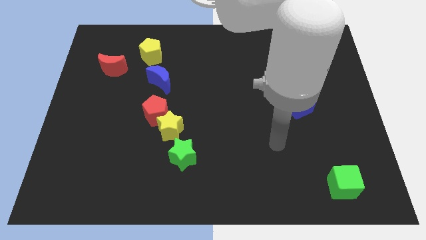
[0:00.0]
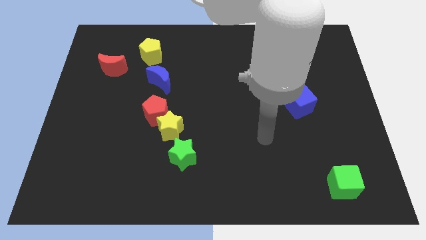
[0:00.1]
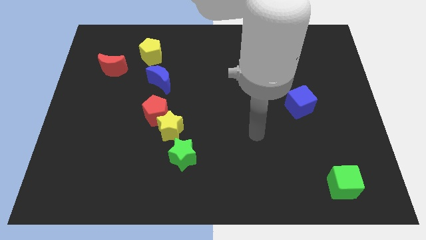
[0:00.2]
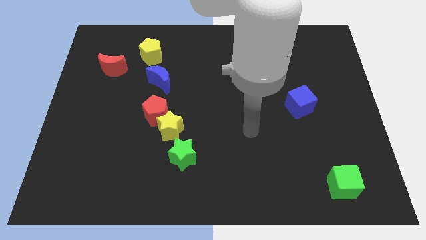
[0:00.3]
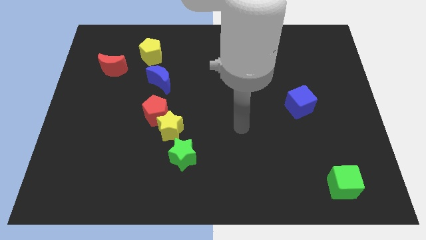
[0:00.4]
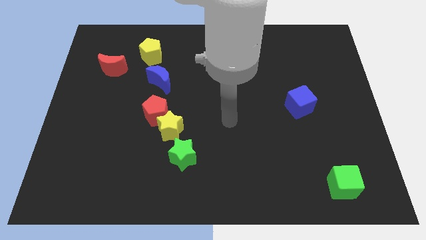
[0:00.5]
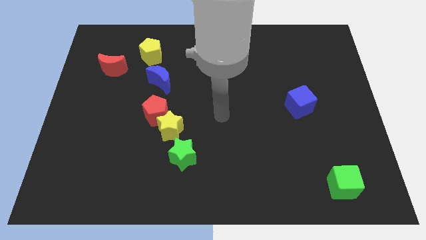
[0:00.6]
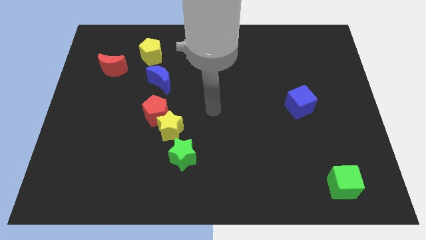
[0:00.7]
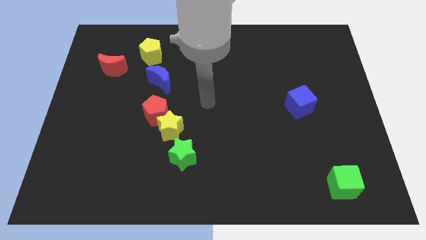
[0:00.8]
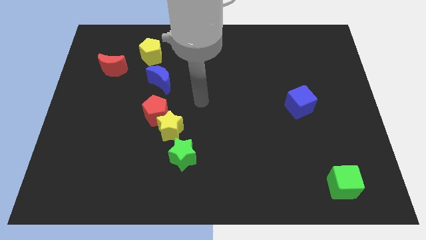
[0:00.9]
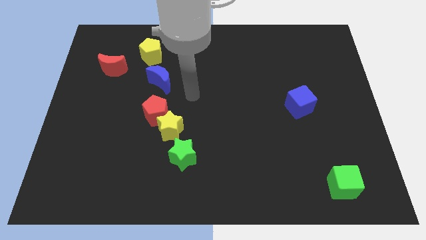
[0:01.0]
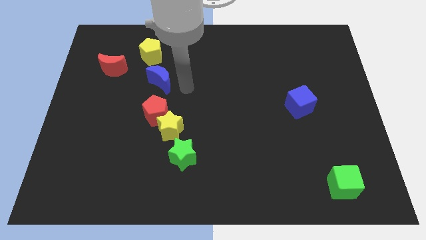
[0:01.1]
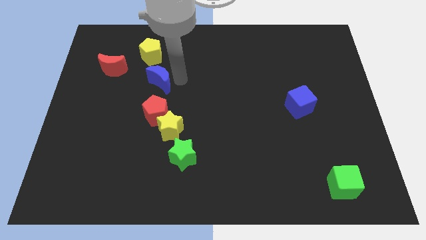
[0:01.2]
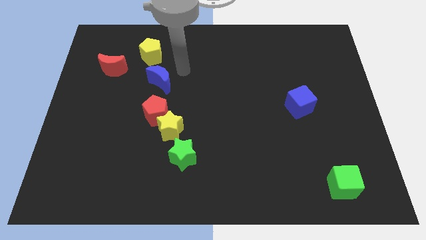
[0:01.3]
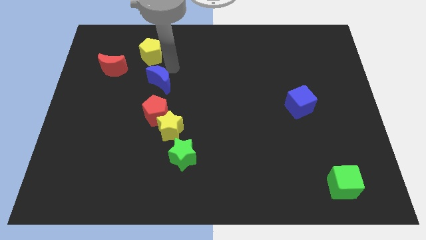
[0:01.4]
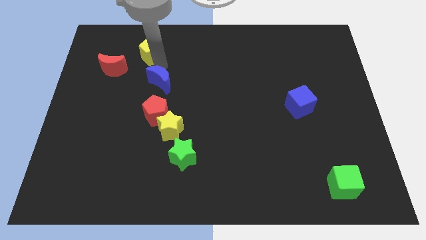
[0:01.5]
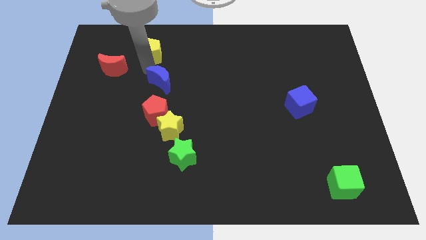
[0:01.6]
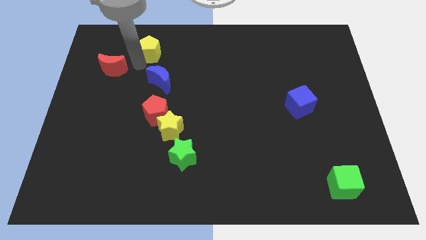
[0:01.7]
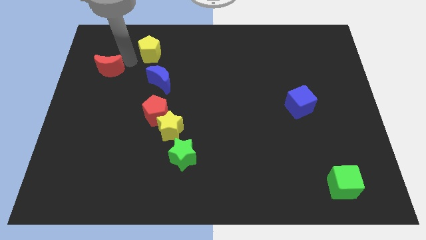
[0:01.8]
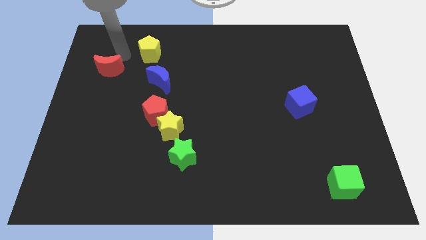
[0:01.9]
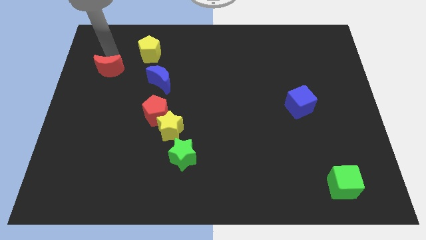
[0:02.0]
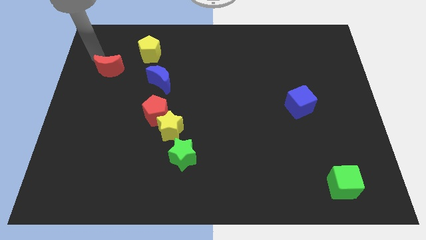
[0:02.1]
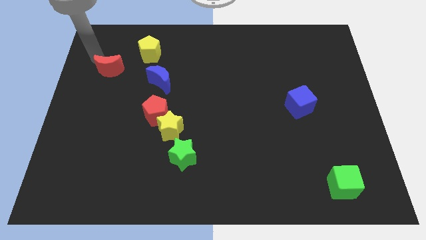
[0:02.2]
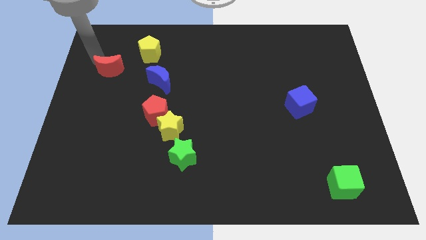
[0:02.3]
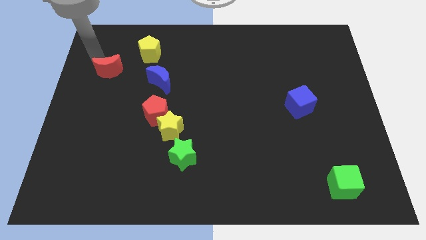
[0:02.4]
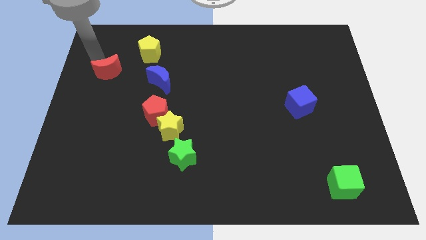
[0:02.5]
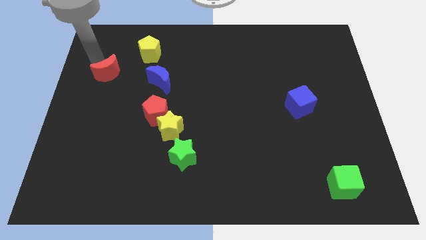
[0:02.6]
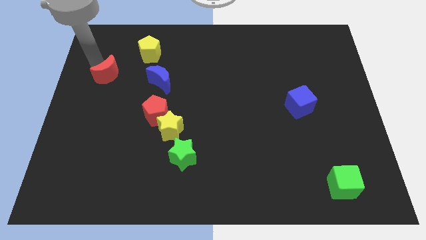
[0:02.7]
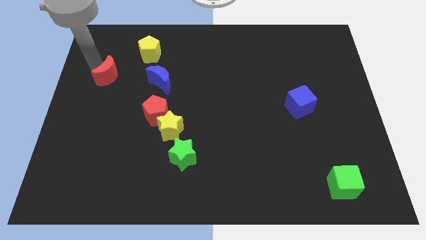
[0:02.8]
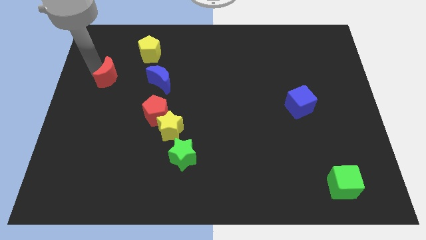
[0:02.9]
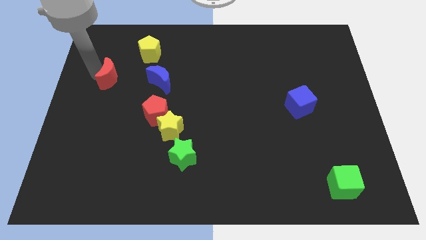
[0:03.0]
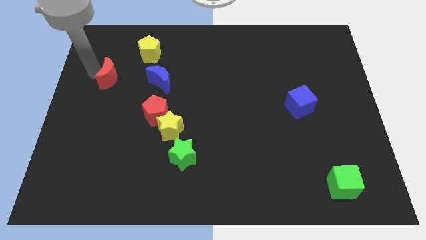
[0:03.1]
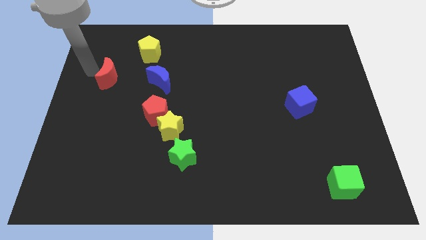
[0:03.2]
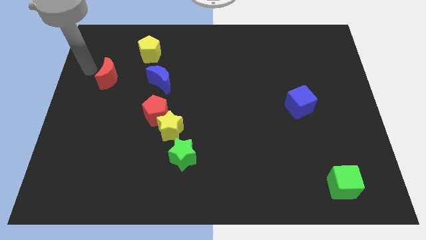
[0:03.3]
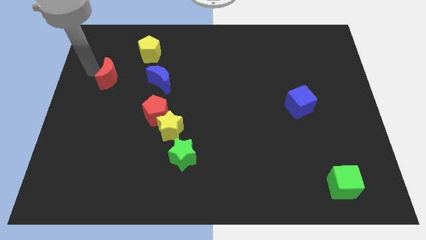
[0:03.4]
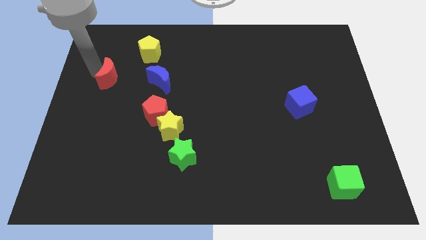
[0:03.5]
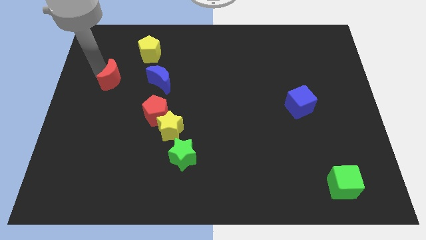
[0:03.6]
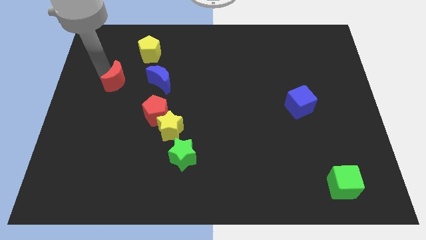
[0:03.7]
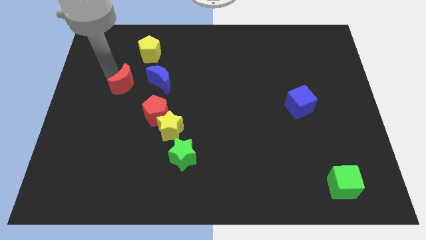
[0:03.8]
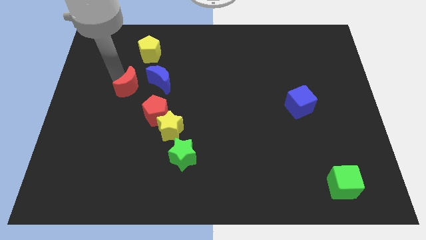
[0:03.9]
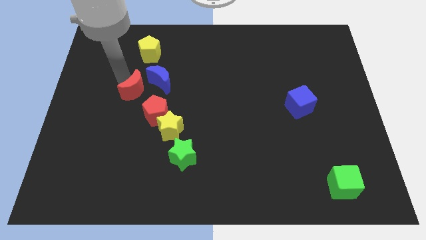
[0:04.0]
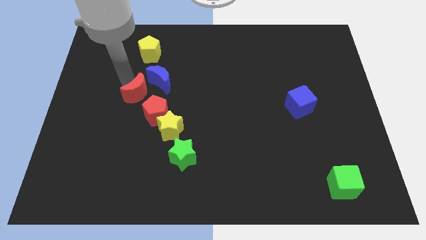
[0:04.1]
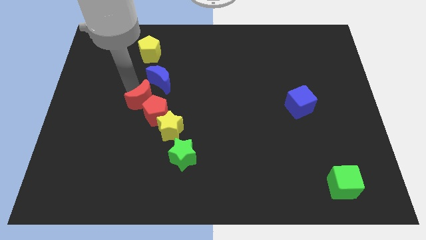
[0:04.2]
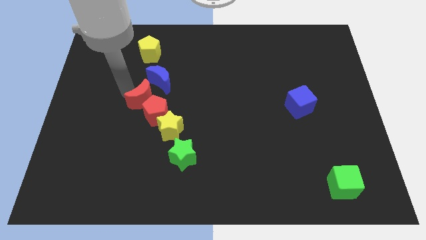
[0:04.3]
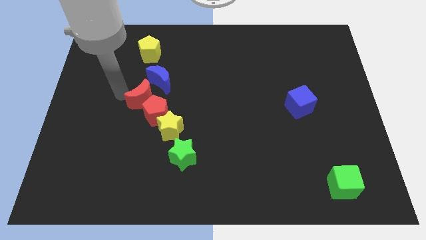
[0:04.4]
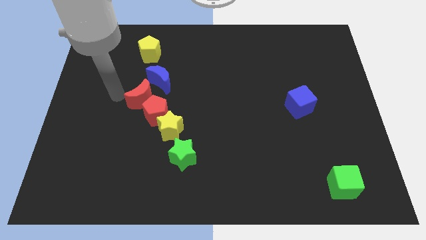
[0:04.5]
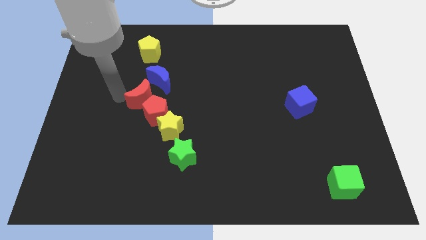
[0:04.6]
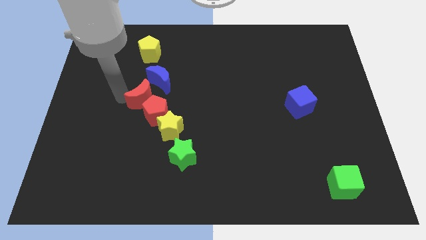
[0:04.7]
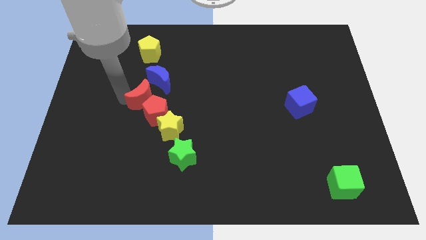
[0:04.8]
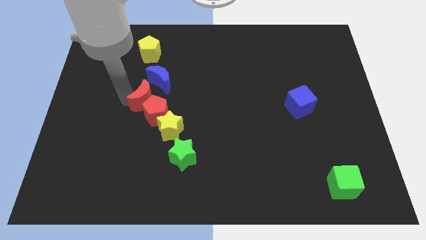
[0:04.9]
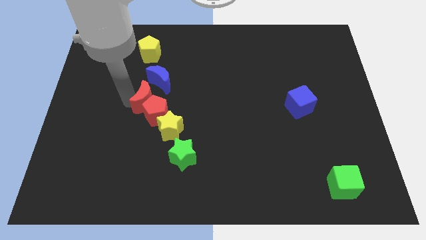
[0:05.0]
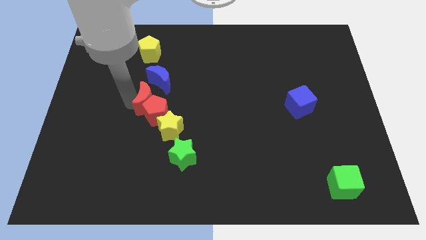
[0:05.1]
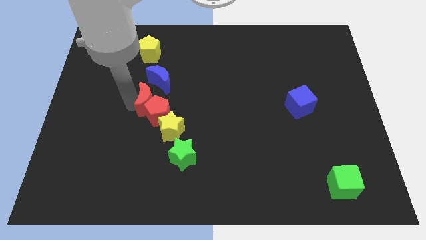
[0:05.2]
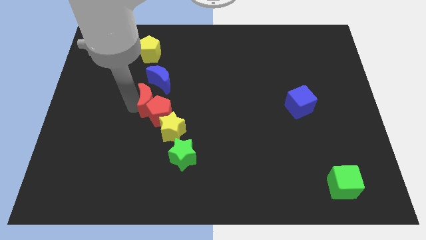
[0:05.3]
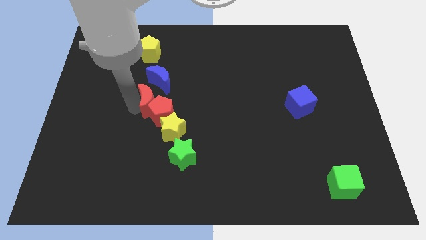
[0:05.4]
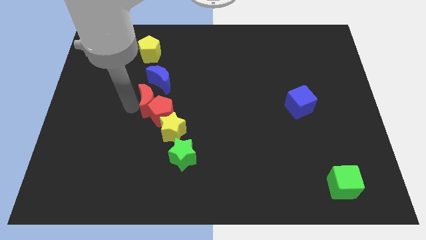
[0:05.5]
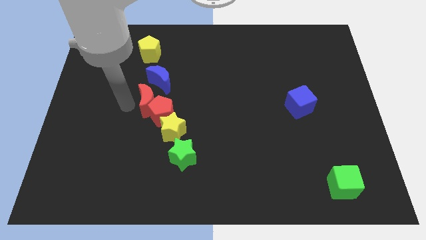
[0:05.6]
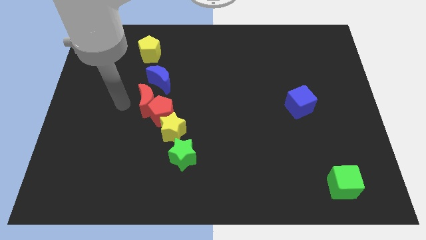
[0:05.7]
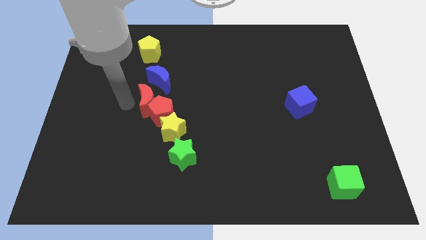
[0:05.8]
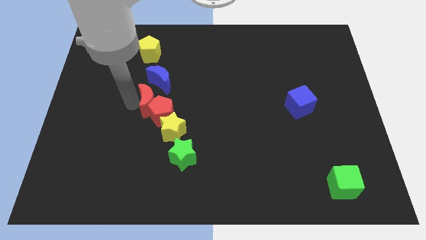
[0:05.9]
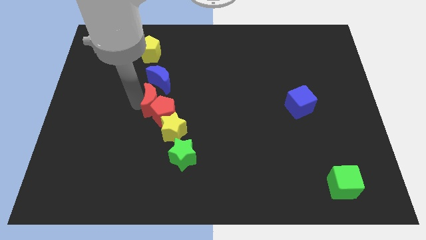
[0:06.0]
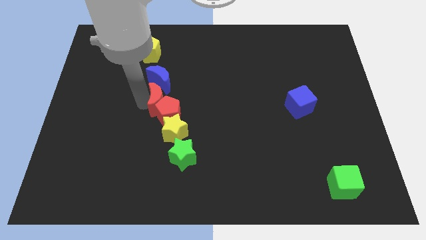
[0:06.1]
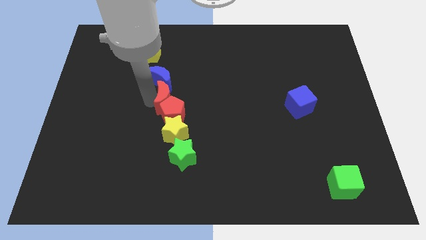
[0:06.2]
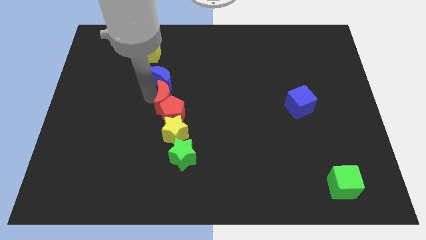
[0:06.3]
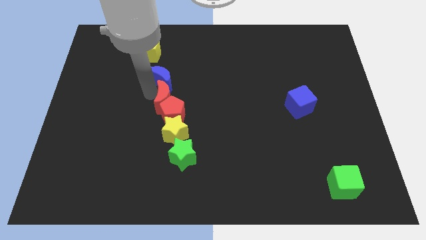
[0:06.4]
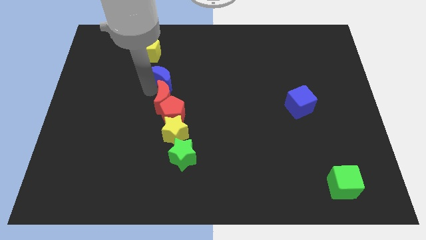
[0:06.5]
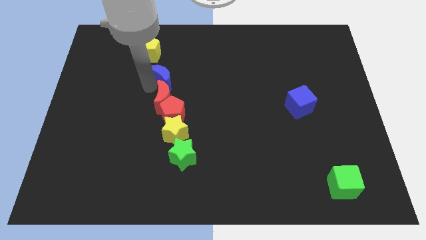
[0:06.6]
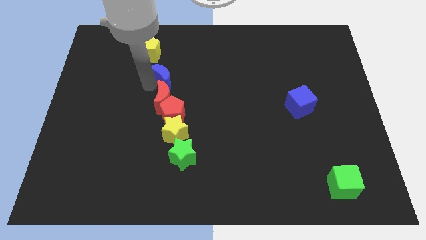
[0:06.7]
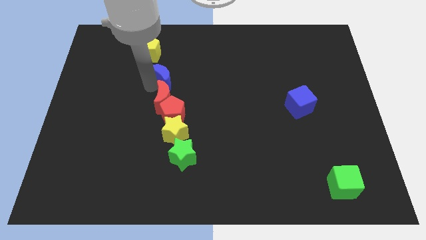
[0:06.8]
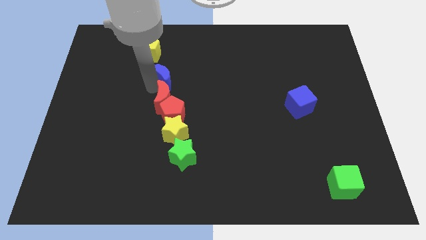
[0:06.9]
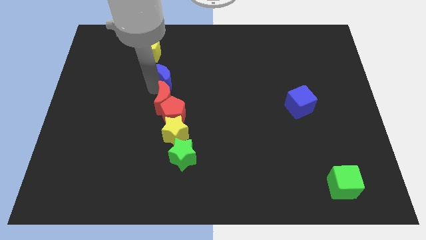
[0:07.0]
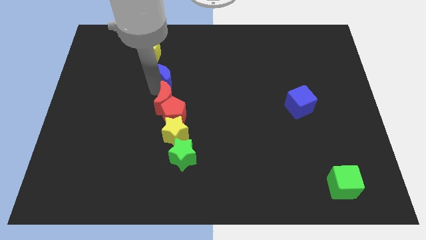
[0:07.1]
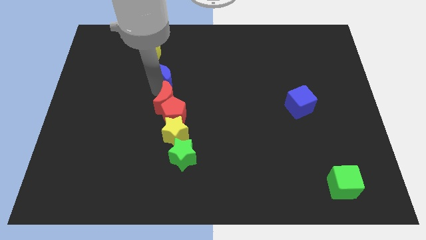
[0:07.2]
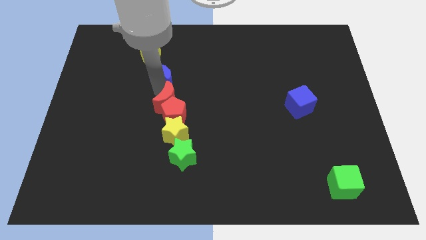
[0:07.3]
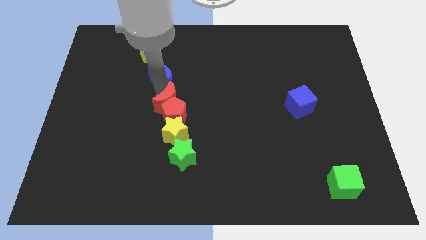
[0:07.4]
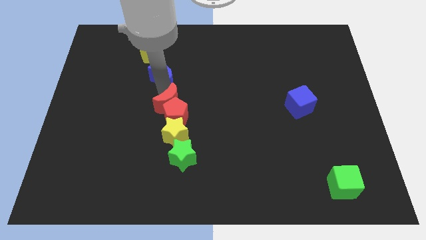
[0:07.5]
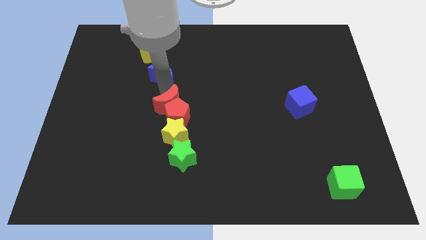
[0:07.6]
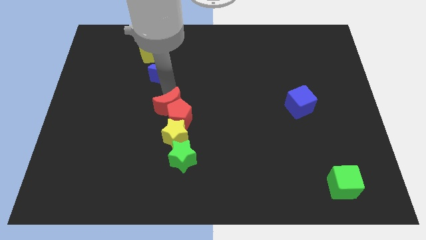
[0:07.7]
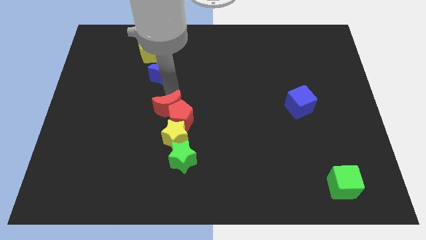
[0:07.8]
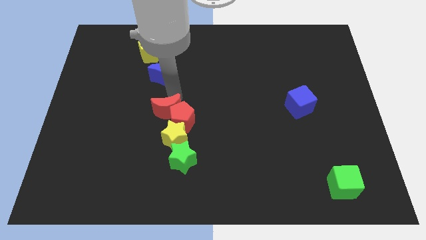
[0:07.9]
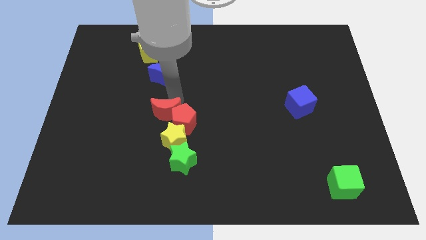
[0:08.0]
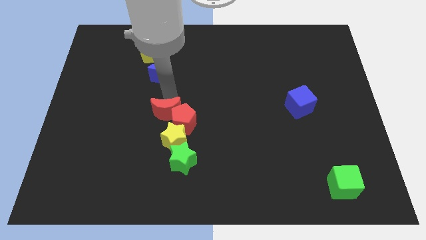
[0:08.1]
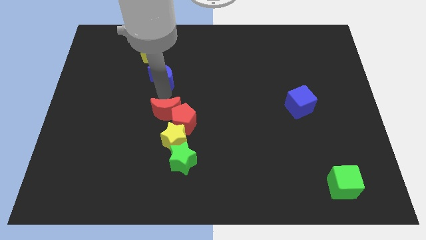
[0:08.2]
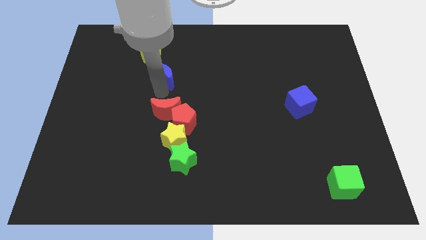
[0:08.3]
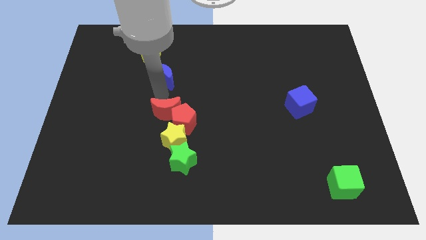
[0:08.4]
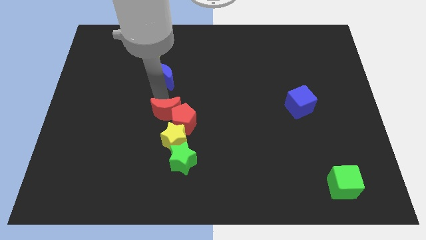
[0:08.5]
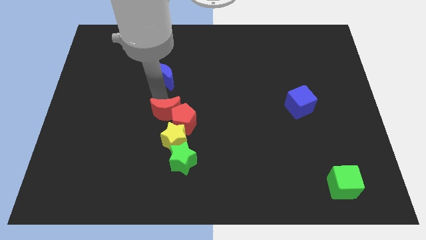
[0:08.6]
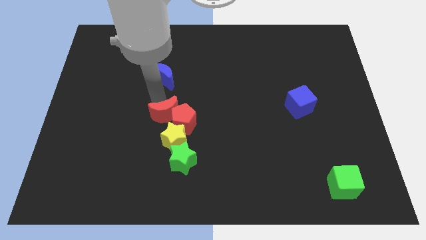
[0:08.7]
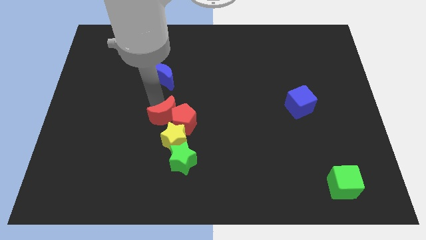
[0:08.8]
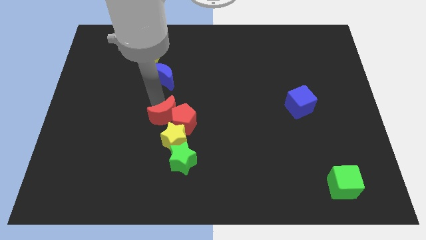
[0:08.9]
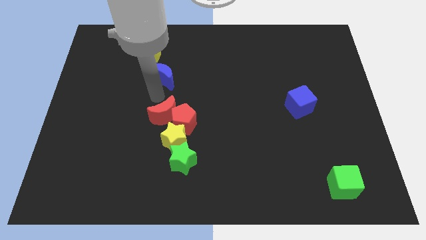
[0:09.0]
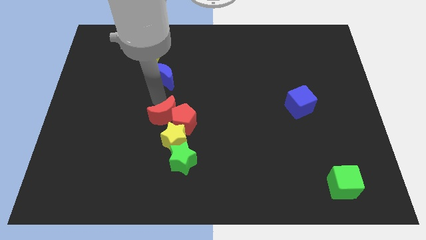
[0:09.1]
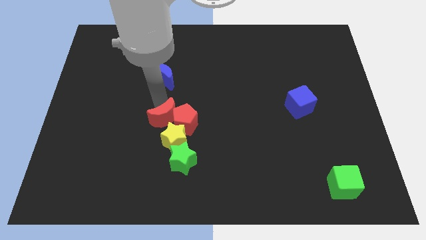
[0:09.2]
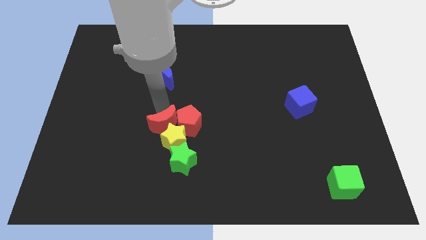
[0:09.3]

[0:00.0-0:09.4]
push the red moon towards the yellow star
